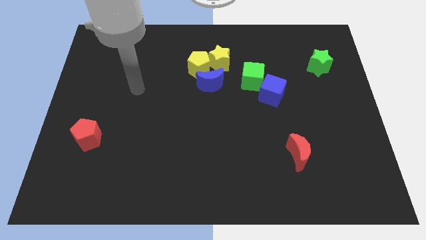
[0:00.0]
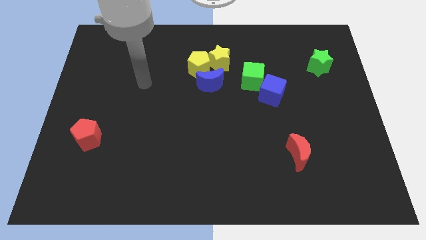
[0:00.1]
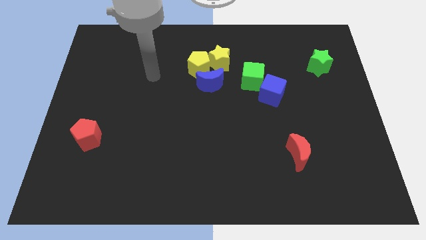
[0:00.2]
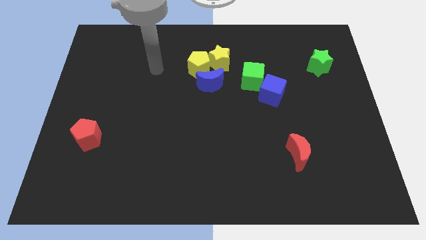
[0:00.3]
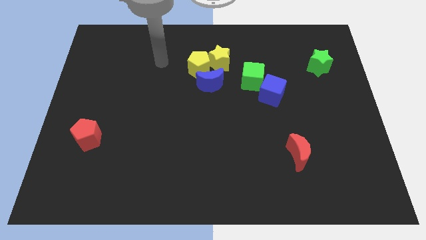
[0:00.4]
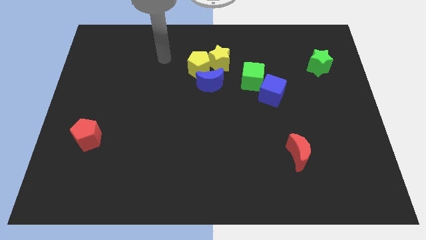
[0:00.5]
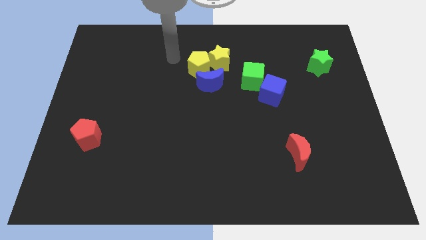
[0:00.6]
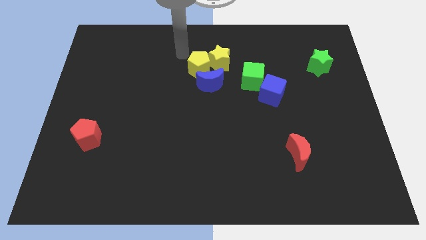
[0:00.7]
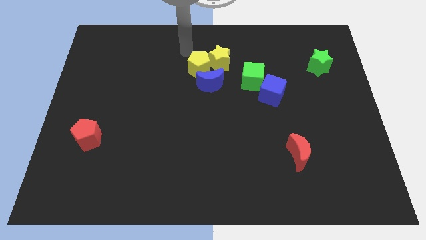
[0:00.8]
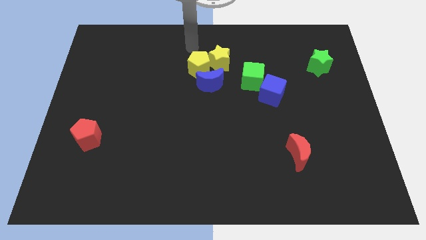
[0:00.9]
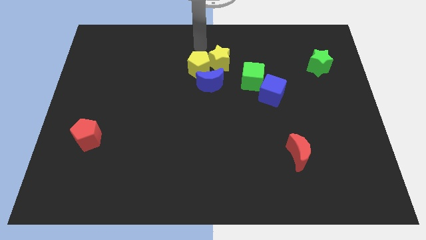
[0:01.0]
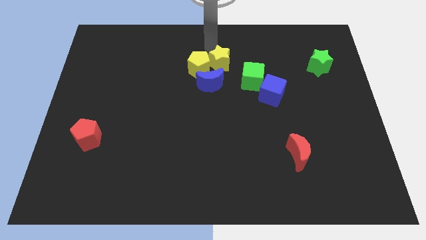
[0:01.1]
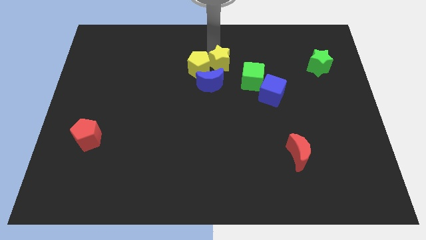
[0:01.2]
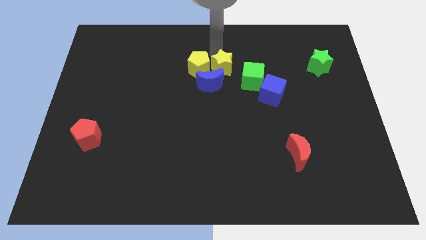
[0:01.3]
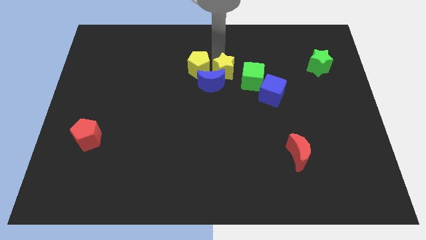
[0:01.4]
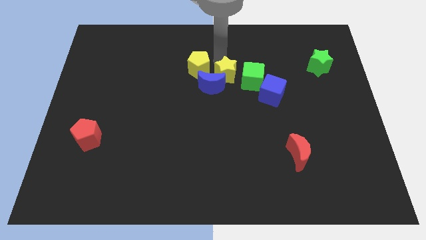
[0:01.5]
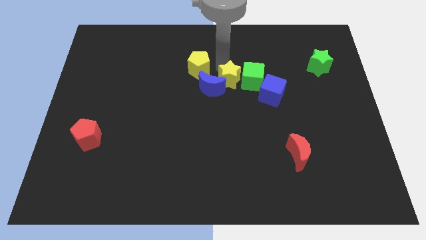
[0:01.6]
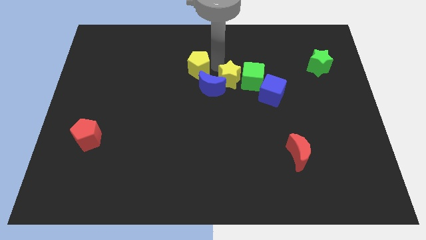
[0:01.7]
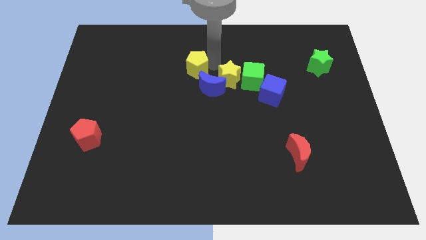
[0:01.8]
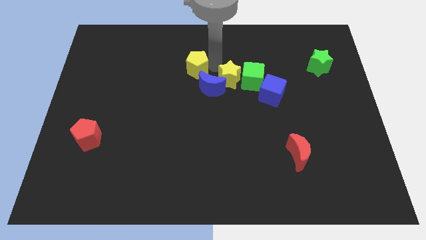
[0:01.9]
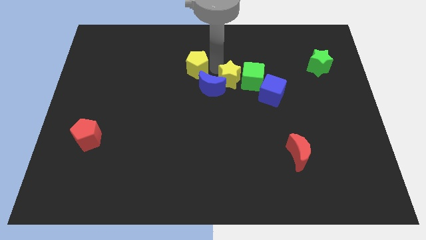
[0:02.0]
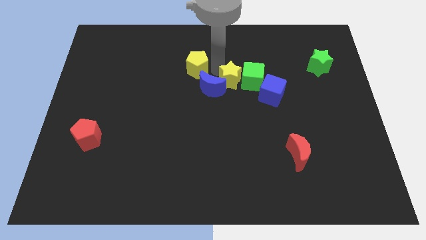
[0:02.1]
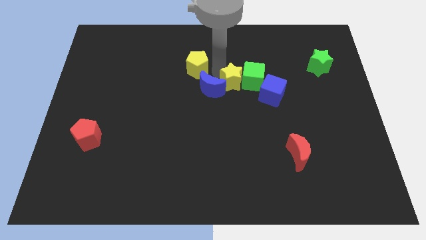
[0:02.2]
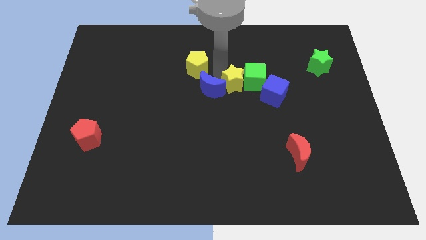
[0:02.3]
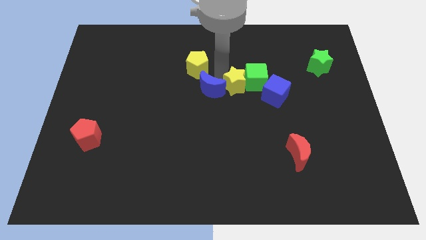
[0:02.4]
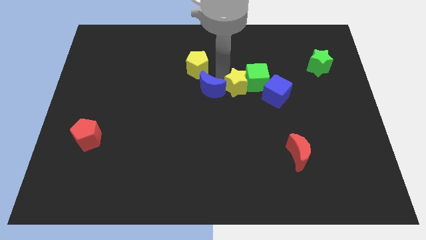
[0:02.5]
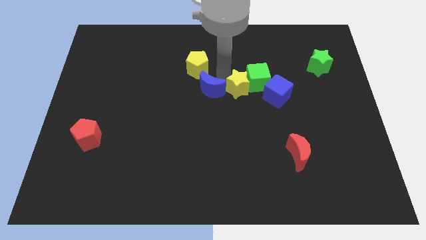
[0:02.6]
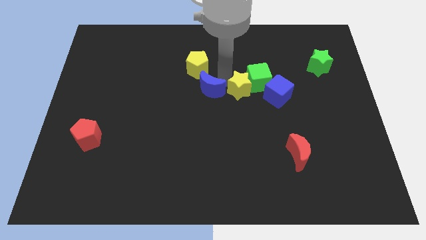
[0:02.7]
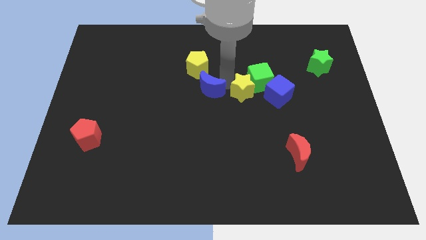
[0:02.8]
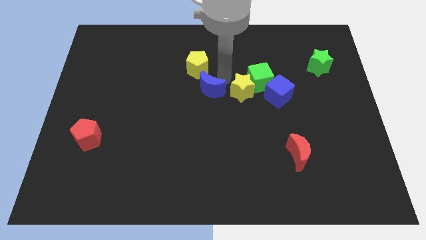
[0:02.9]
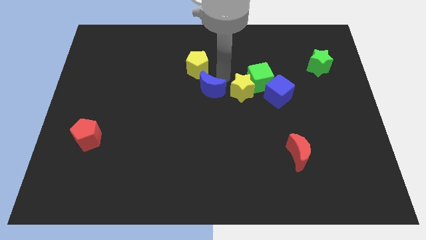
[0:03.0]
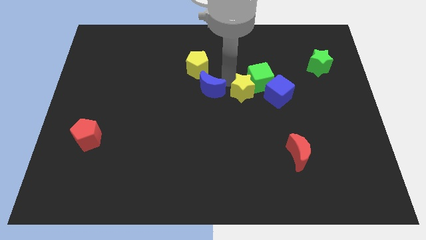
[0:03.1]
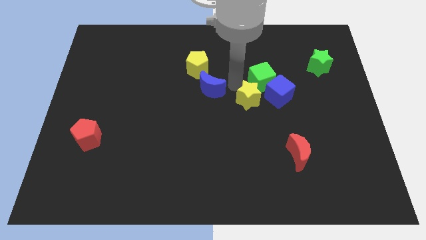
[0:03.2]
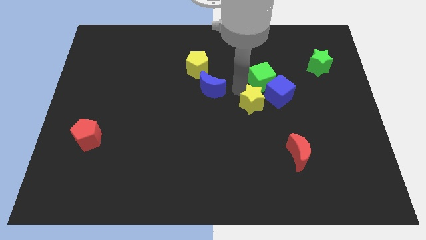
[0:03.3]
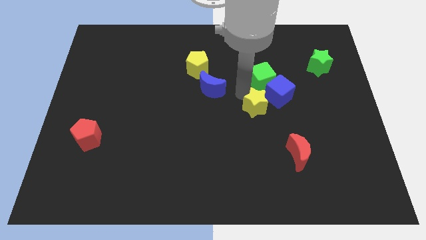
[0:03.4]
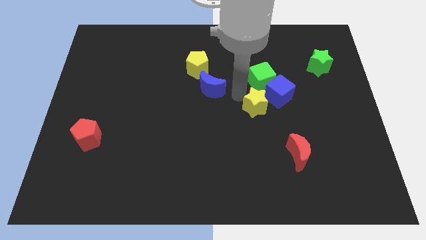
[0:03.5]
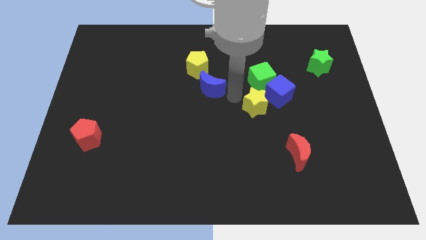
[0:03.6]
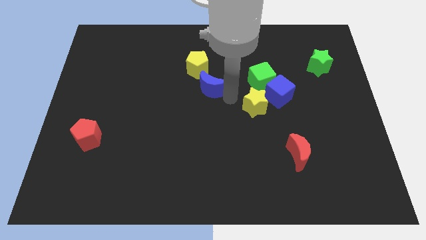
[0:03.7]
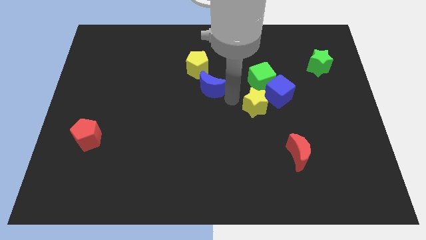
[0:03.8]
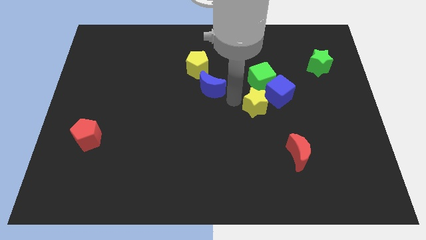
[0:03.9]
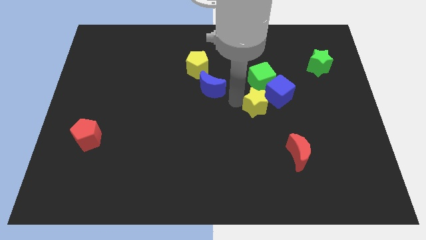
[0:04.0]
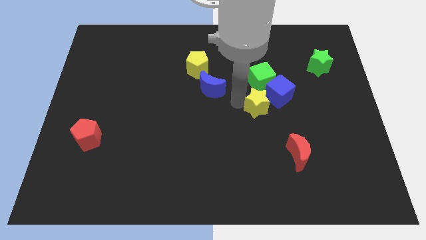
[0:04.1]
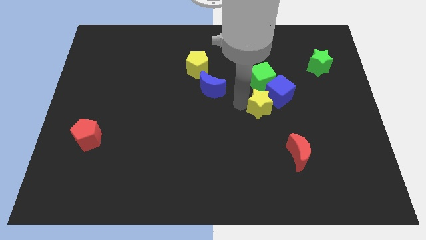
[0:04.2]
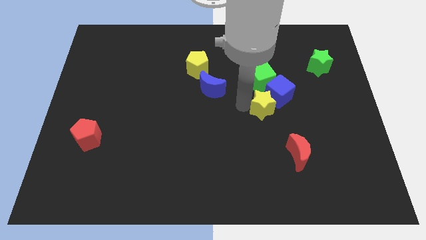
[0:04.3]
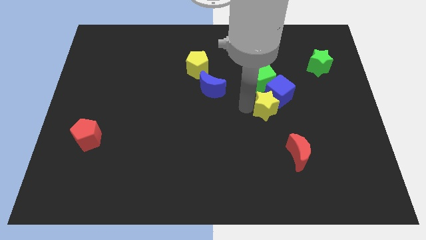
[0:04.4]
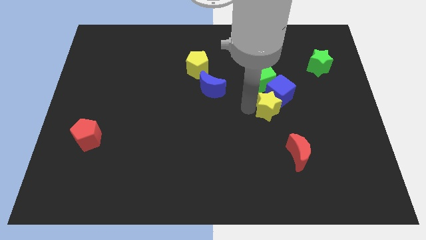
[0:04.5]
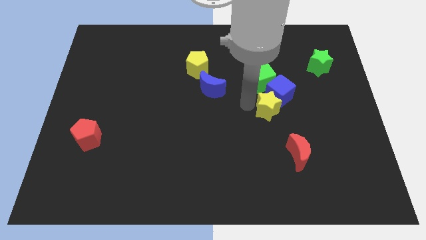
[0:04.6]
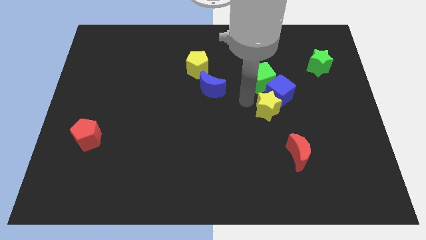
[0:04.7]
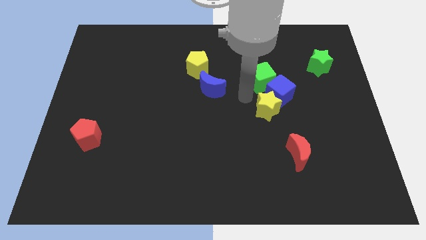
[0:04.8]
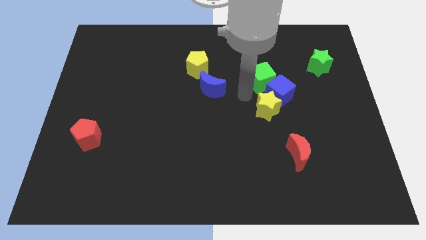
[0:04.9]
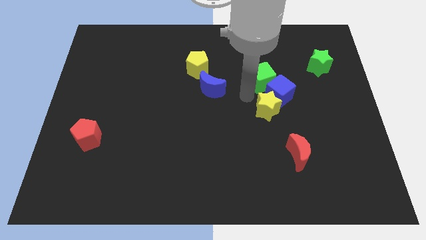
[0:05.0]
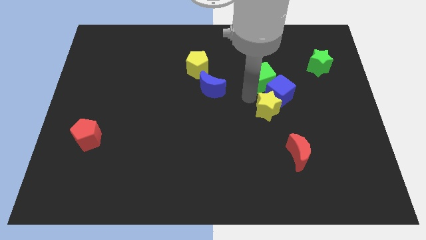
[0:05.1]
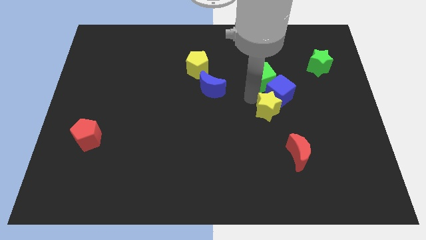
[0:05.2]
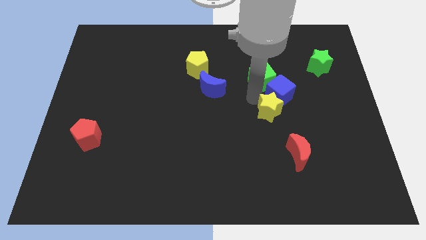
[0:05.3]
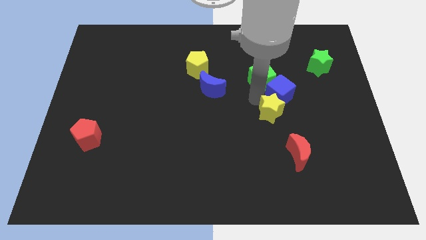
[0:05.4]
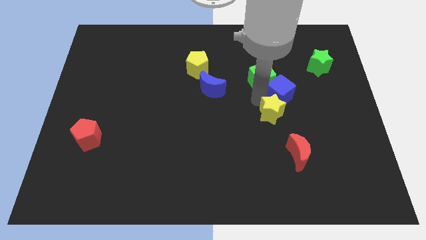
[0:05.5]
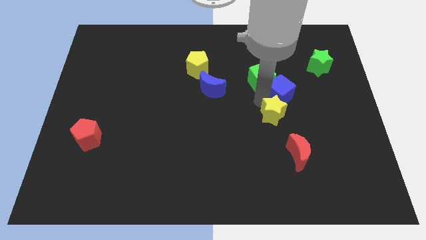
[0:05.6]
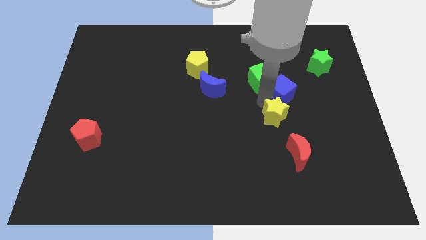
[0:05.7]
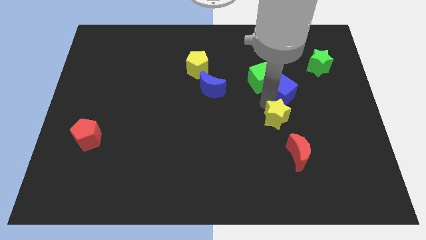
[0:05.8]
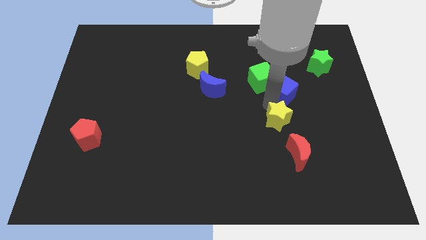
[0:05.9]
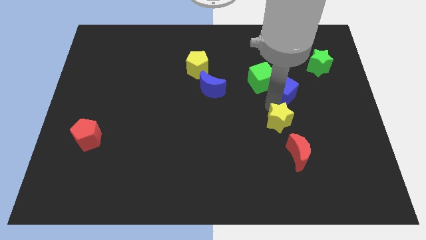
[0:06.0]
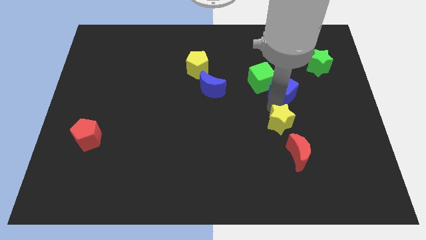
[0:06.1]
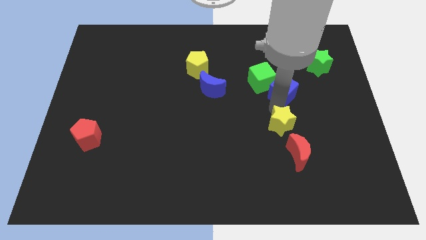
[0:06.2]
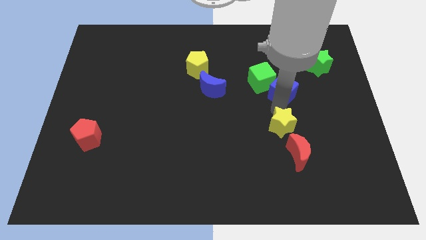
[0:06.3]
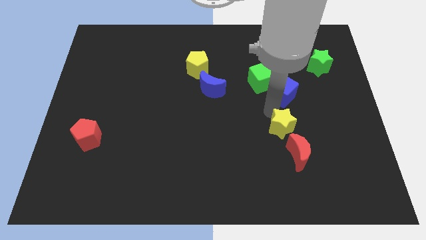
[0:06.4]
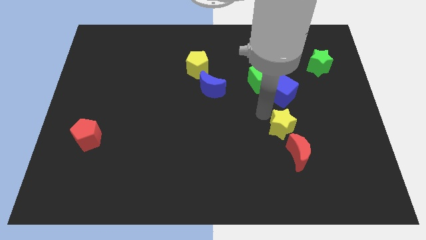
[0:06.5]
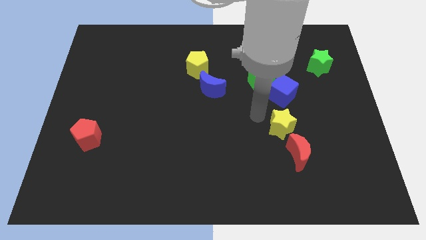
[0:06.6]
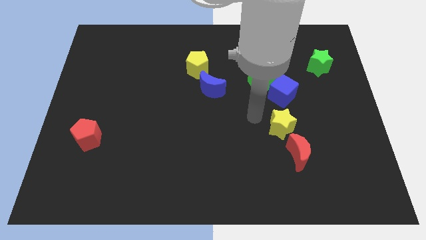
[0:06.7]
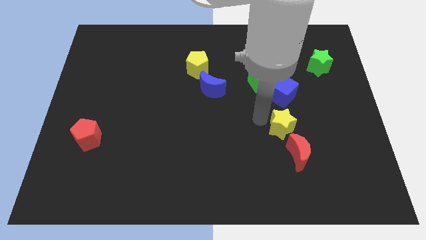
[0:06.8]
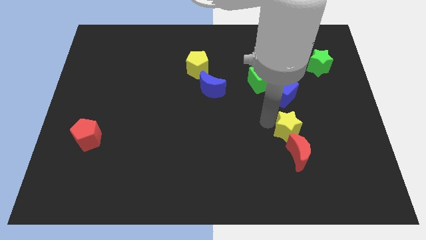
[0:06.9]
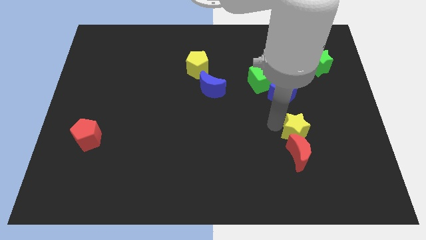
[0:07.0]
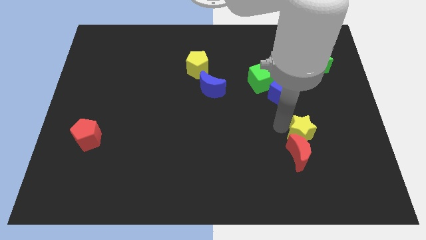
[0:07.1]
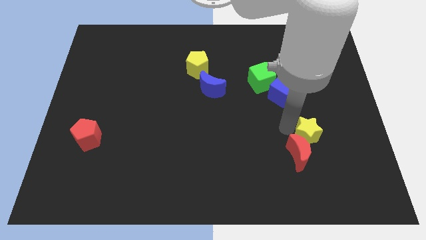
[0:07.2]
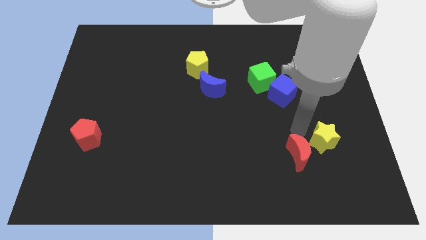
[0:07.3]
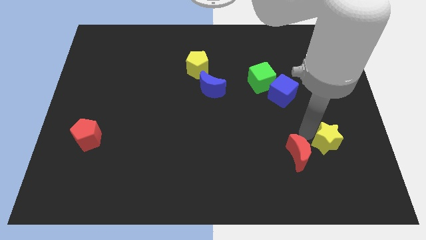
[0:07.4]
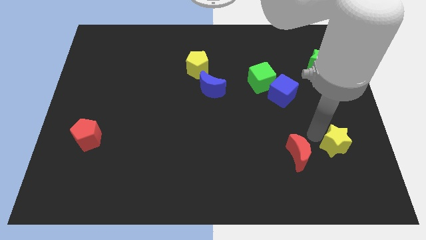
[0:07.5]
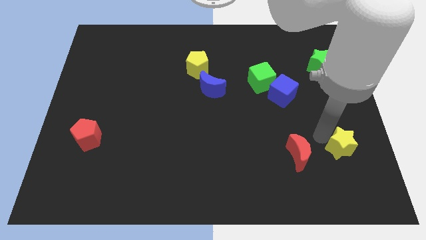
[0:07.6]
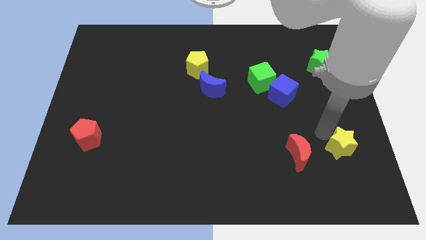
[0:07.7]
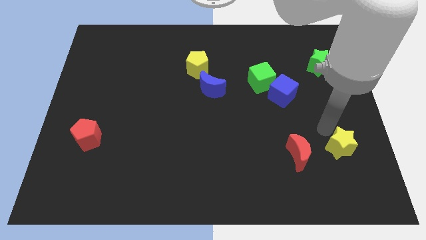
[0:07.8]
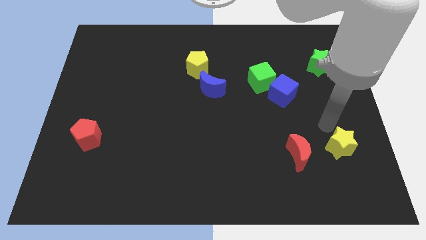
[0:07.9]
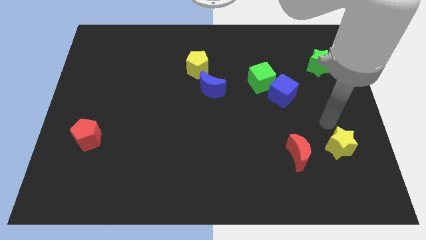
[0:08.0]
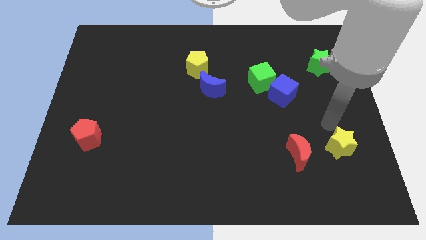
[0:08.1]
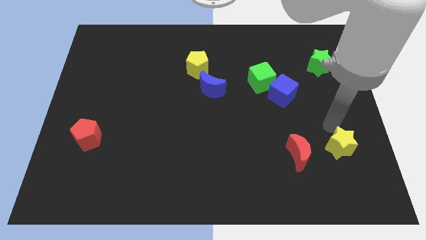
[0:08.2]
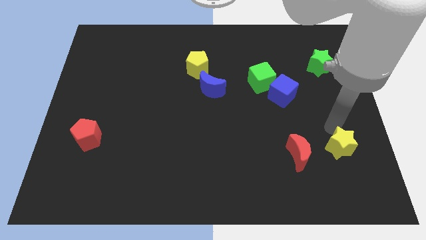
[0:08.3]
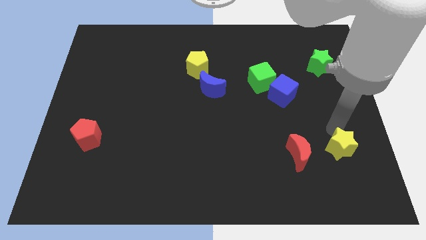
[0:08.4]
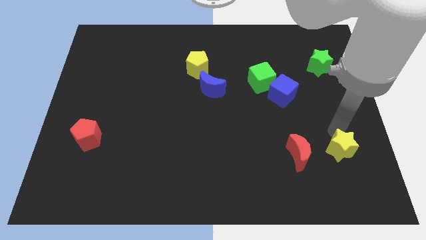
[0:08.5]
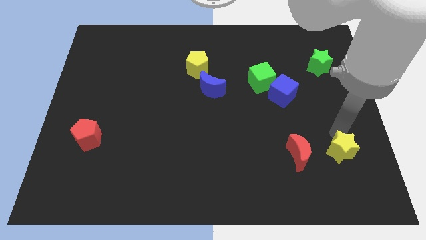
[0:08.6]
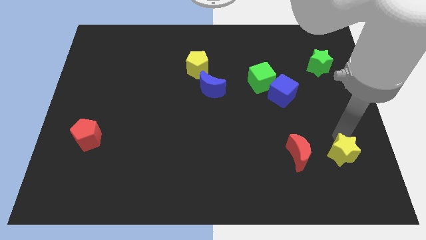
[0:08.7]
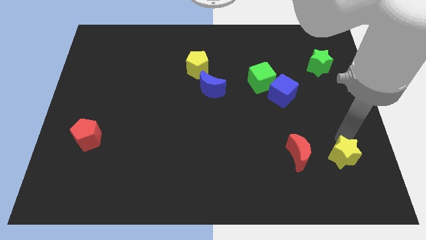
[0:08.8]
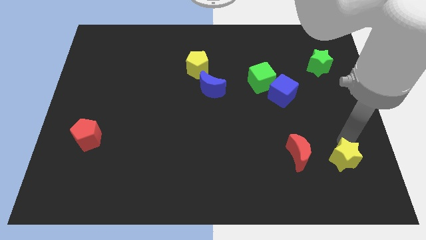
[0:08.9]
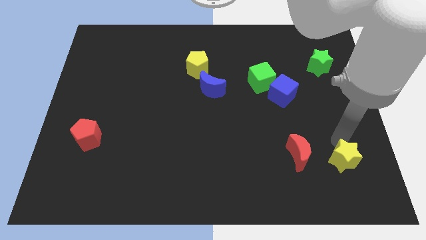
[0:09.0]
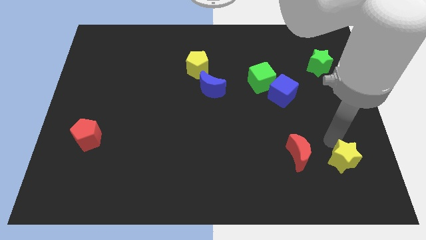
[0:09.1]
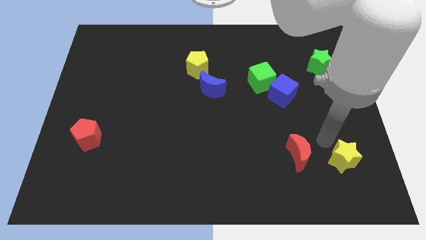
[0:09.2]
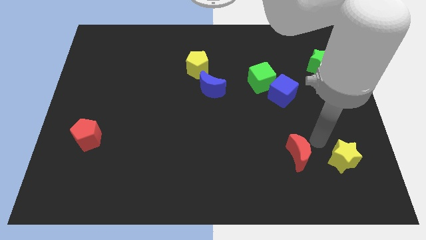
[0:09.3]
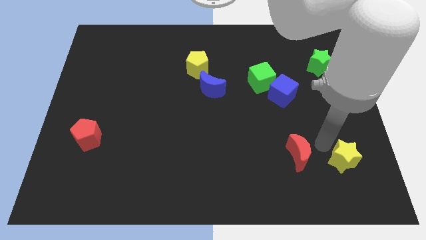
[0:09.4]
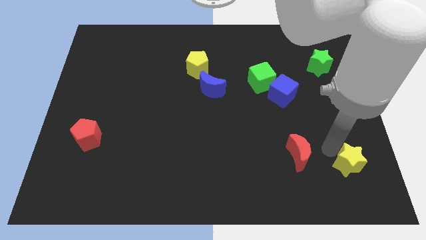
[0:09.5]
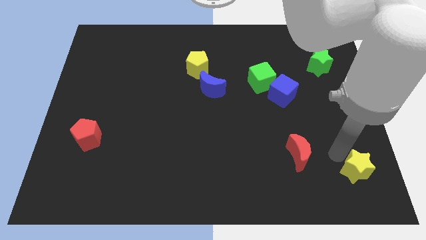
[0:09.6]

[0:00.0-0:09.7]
slide the yellow star to the bottom right of the board
